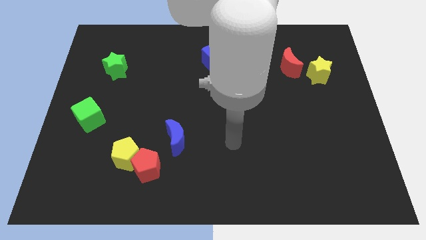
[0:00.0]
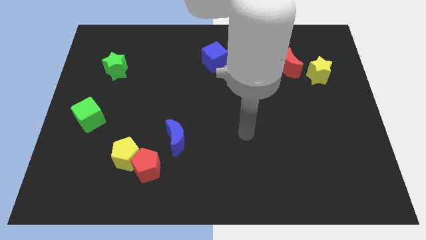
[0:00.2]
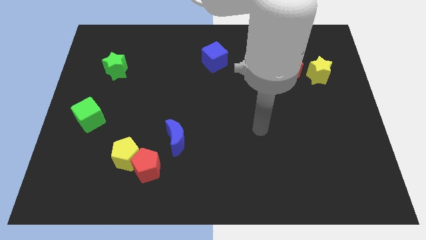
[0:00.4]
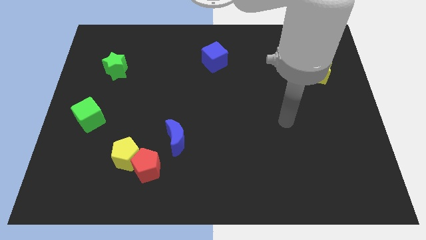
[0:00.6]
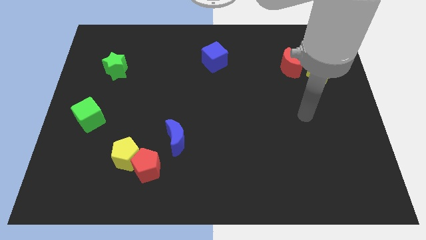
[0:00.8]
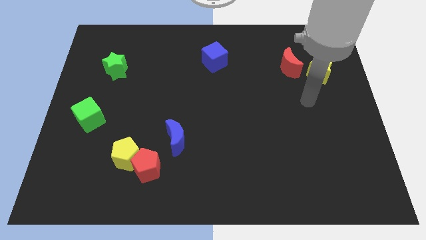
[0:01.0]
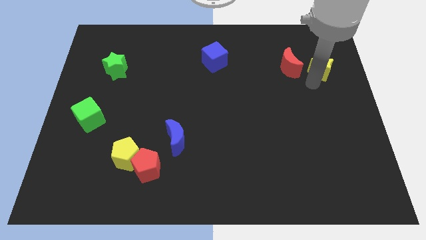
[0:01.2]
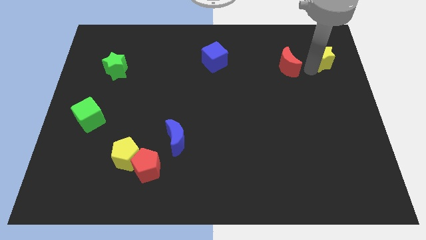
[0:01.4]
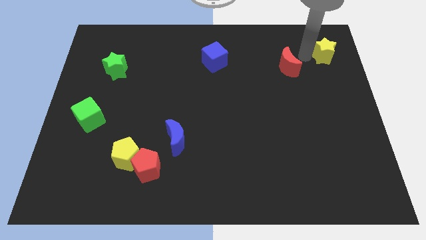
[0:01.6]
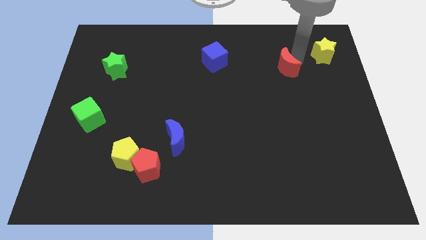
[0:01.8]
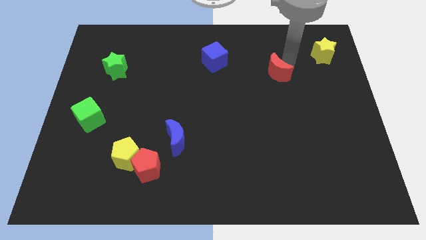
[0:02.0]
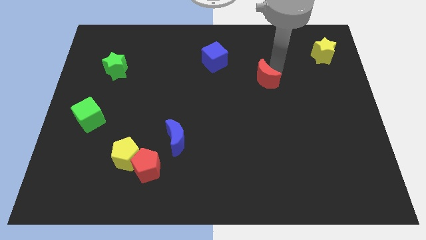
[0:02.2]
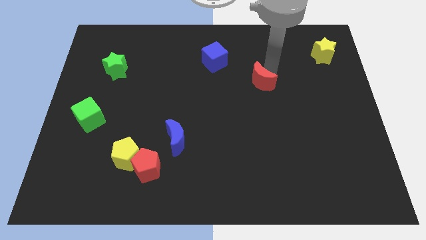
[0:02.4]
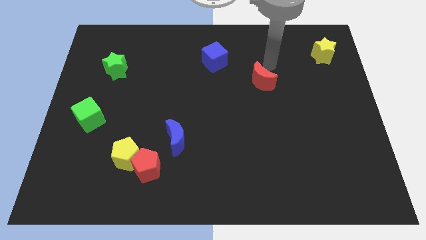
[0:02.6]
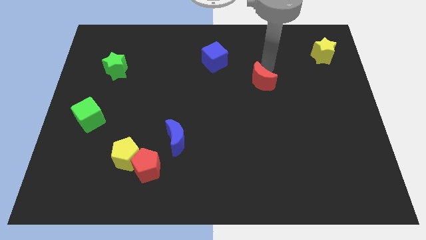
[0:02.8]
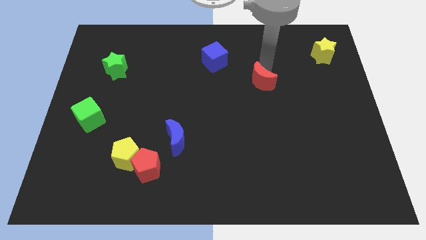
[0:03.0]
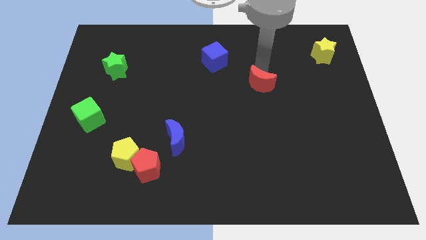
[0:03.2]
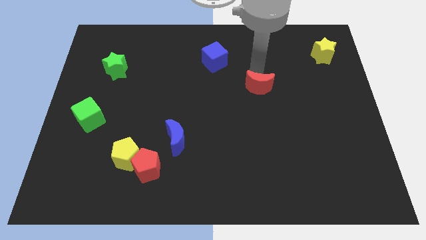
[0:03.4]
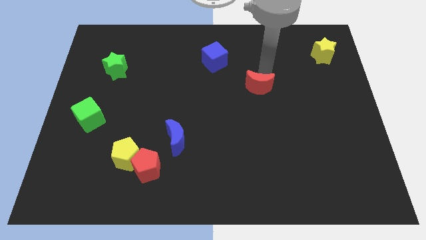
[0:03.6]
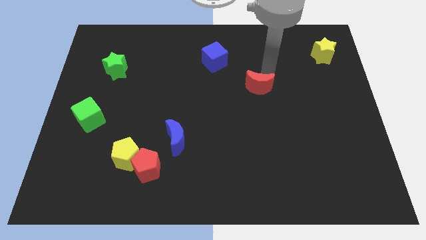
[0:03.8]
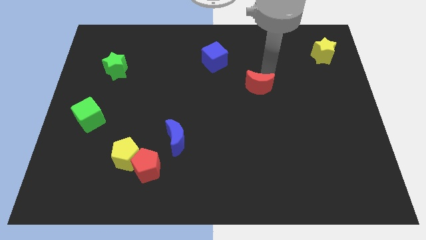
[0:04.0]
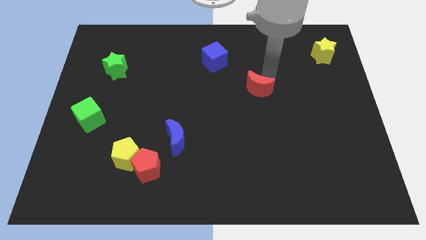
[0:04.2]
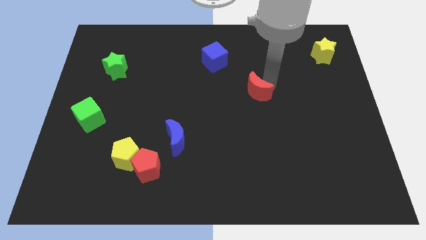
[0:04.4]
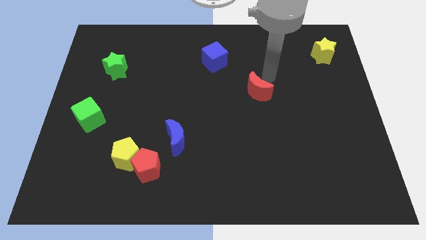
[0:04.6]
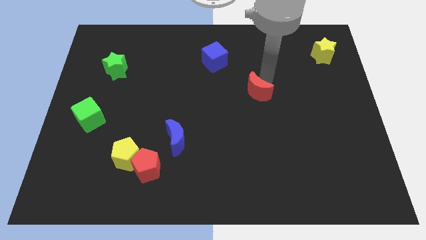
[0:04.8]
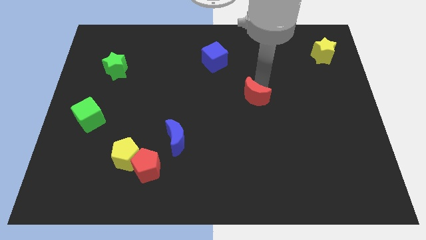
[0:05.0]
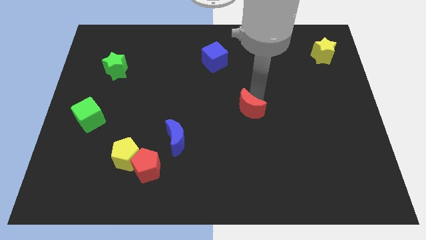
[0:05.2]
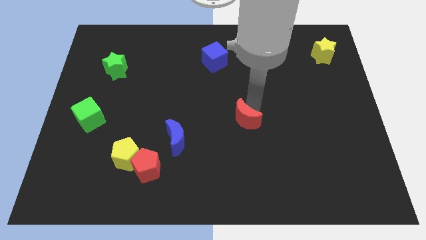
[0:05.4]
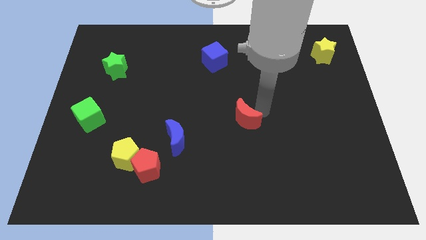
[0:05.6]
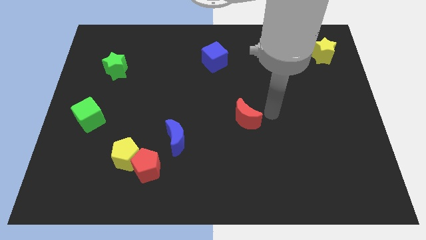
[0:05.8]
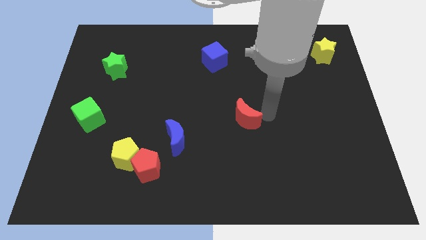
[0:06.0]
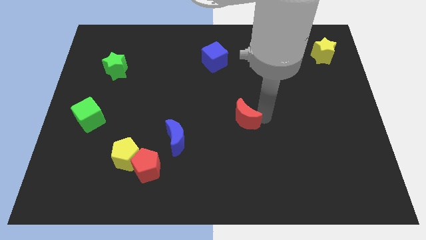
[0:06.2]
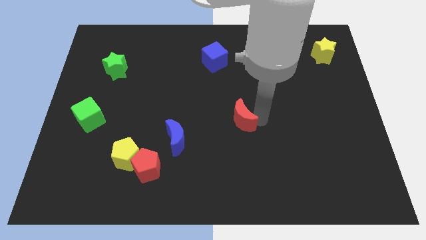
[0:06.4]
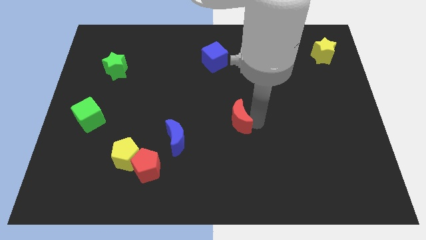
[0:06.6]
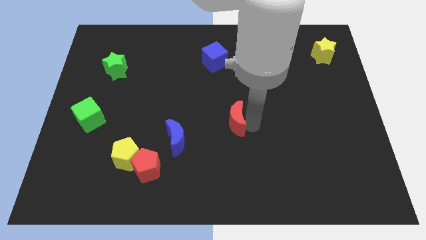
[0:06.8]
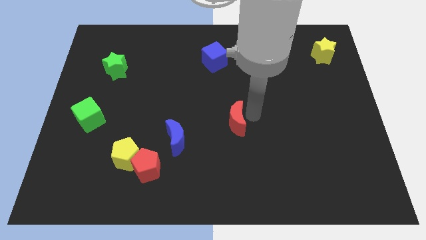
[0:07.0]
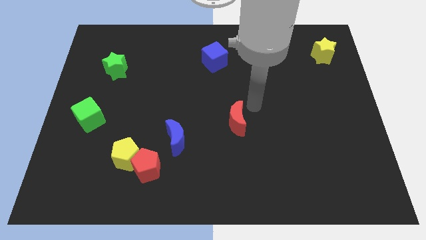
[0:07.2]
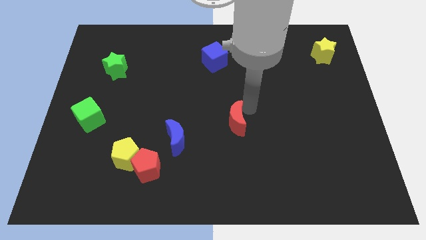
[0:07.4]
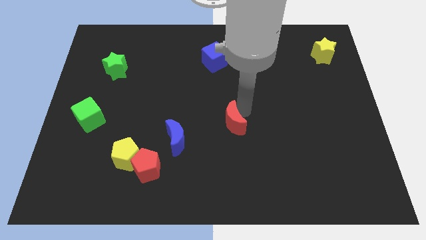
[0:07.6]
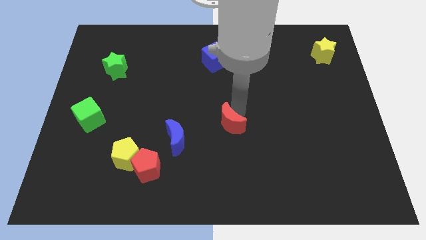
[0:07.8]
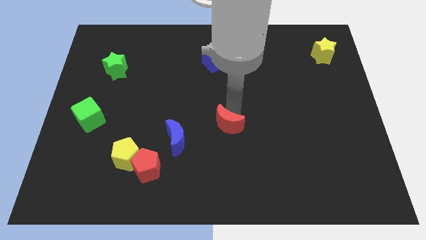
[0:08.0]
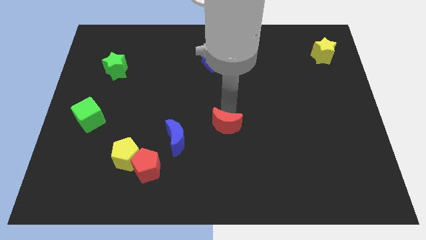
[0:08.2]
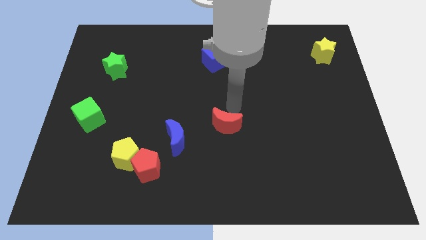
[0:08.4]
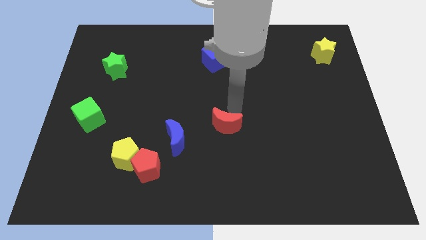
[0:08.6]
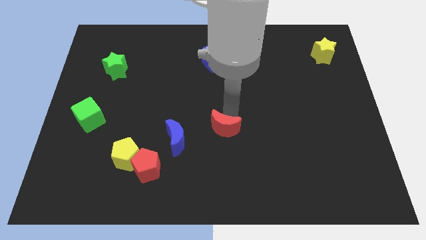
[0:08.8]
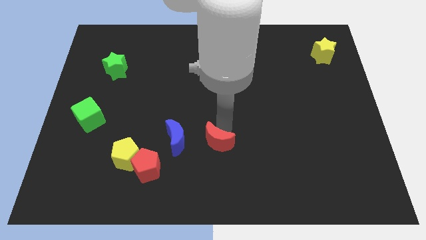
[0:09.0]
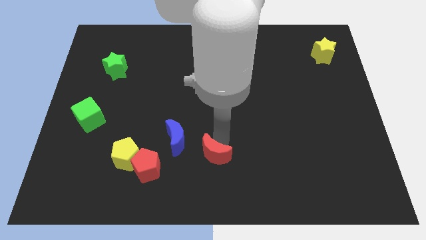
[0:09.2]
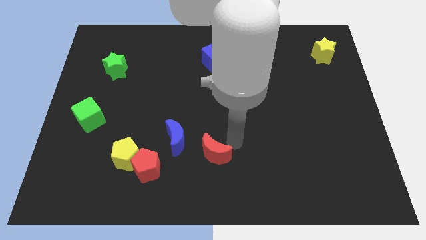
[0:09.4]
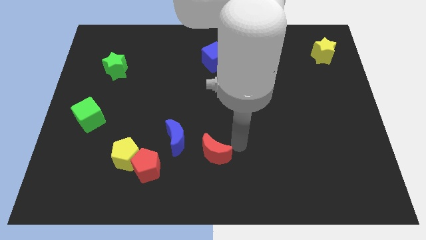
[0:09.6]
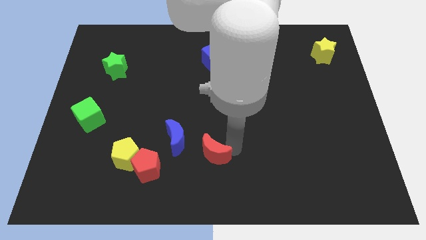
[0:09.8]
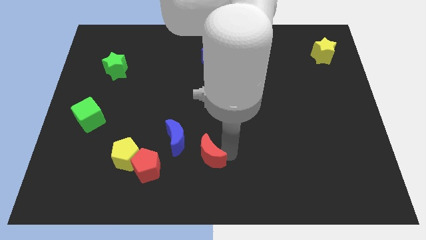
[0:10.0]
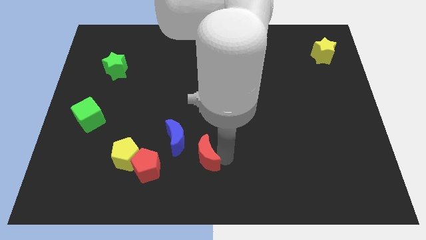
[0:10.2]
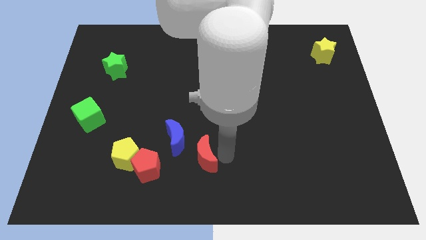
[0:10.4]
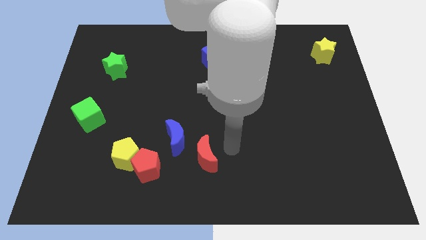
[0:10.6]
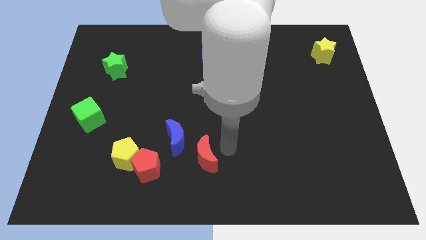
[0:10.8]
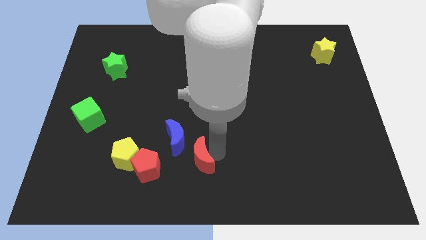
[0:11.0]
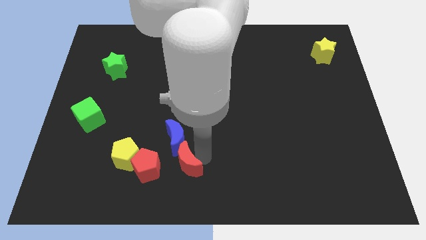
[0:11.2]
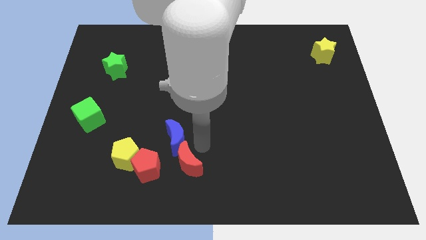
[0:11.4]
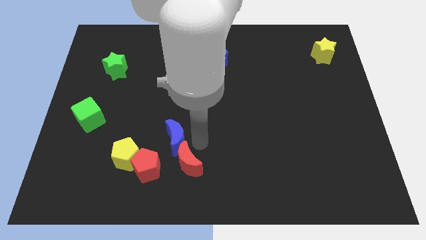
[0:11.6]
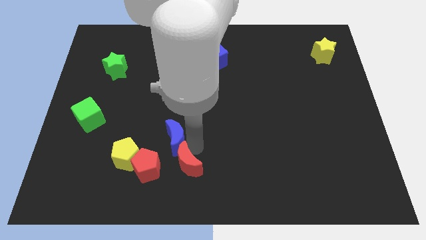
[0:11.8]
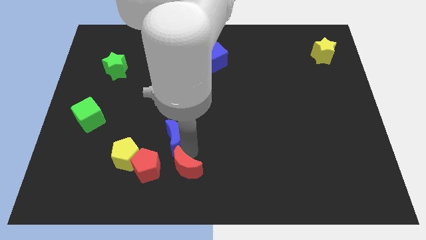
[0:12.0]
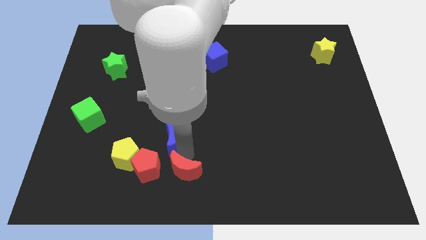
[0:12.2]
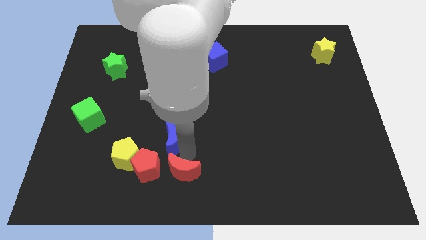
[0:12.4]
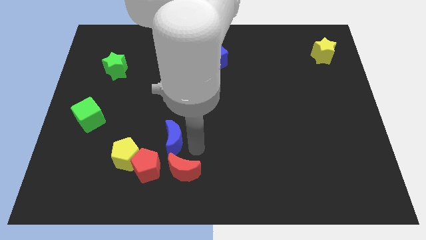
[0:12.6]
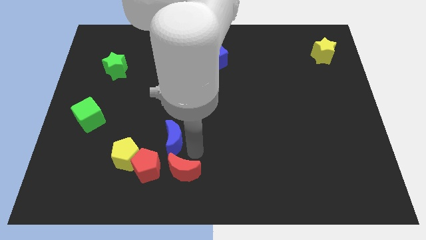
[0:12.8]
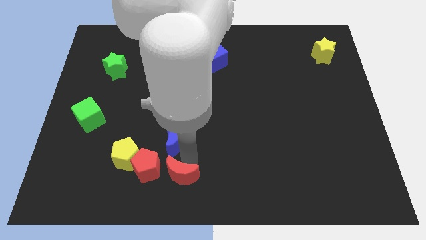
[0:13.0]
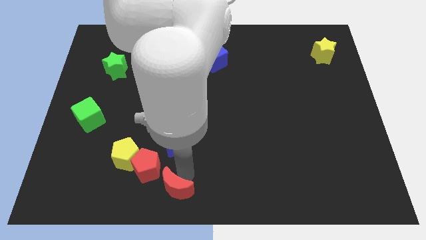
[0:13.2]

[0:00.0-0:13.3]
put the red moon diagonally down and to the right of the yellow pentagon

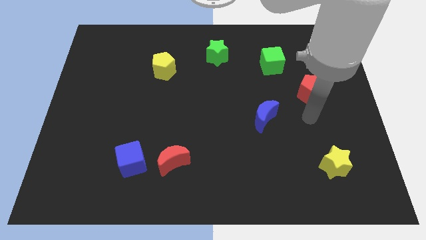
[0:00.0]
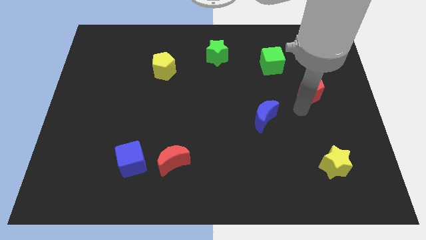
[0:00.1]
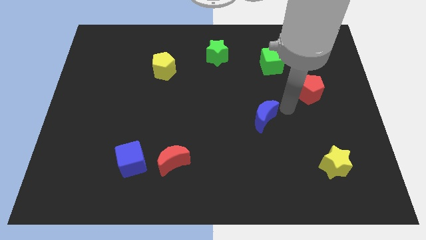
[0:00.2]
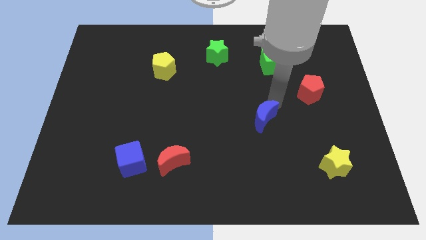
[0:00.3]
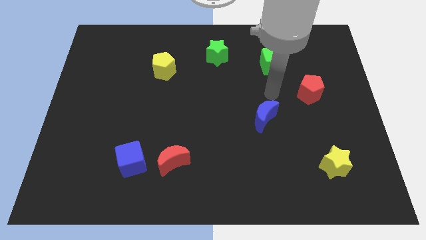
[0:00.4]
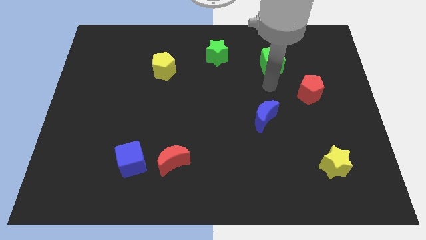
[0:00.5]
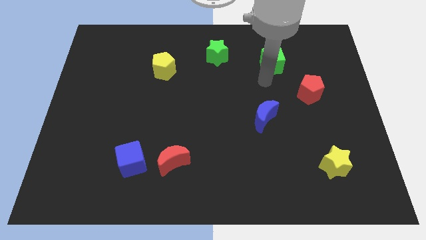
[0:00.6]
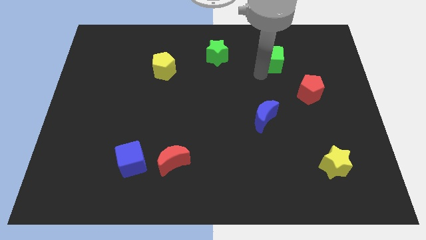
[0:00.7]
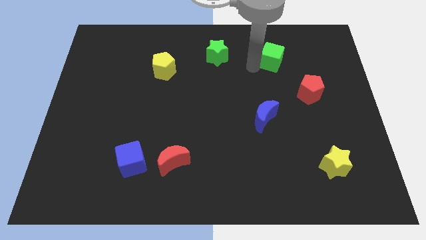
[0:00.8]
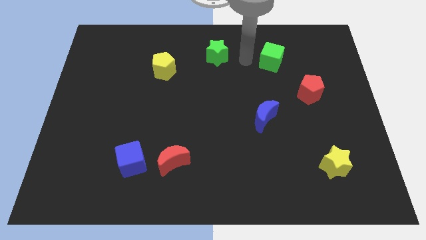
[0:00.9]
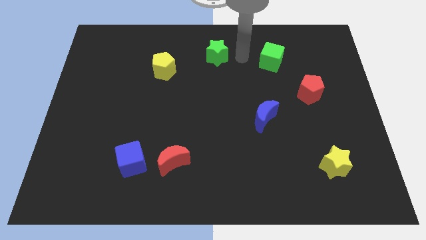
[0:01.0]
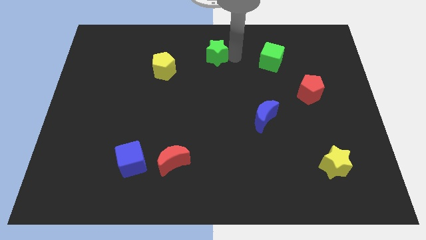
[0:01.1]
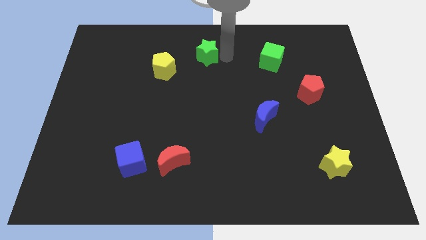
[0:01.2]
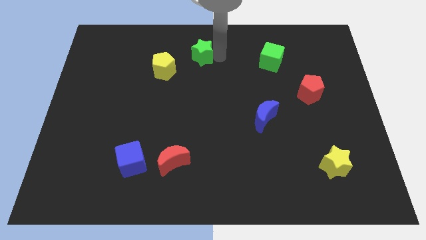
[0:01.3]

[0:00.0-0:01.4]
slide the green star diagonally up and to the right of the yellow pentagon
